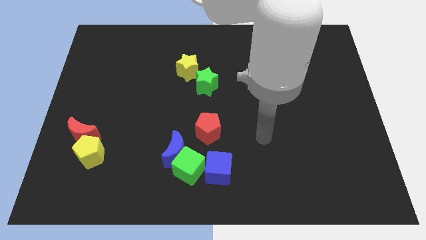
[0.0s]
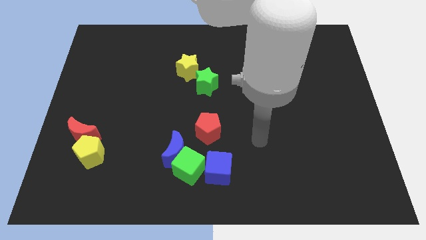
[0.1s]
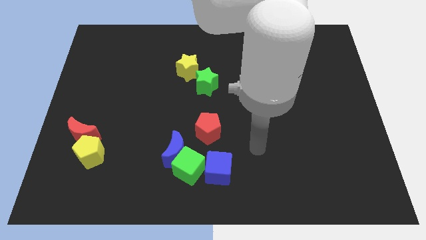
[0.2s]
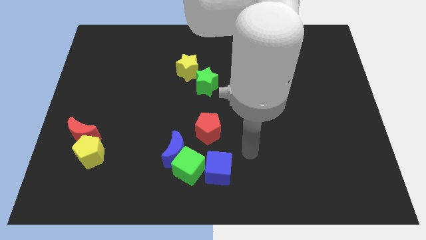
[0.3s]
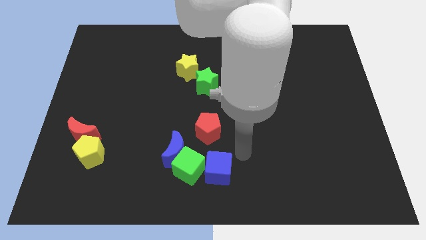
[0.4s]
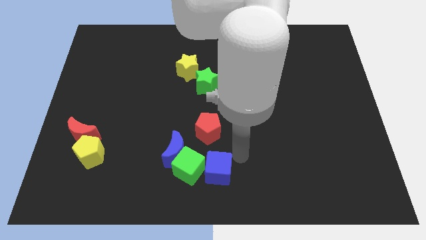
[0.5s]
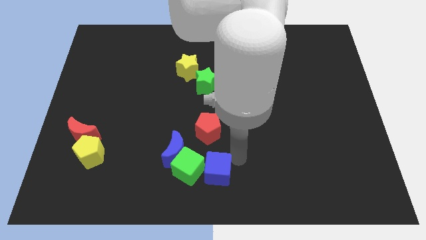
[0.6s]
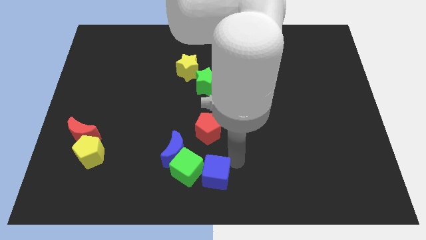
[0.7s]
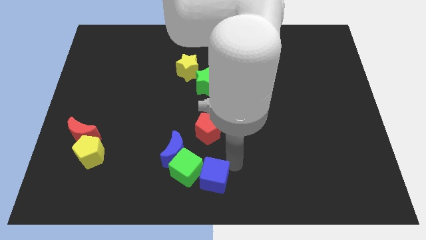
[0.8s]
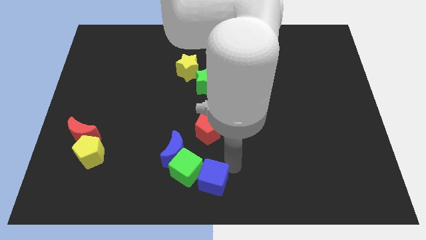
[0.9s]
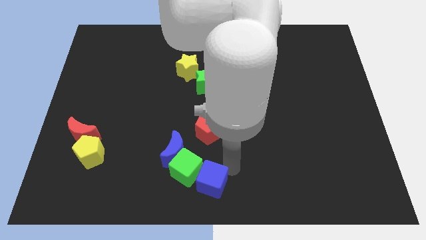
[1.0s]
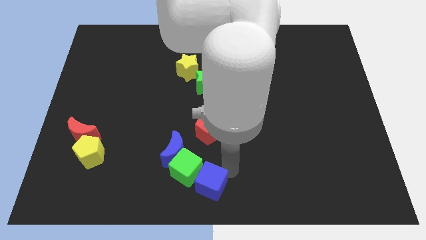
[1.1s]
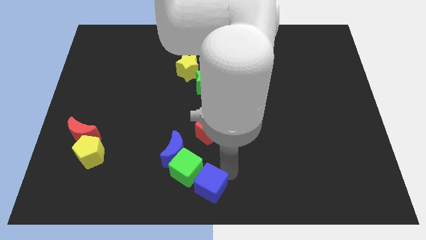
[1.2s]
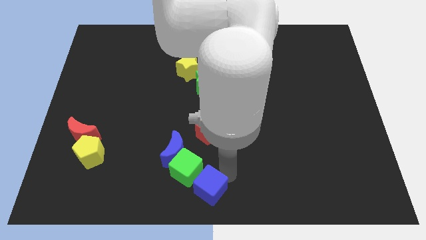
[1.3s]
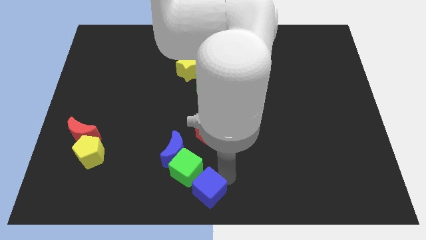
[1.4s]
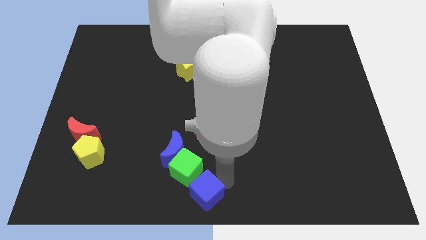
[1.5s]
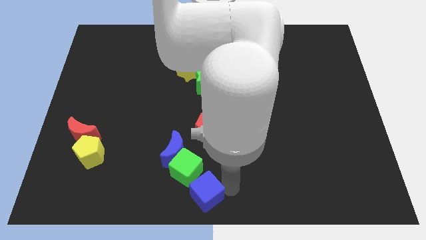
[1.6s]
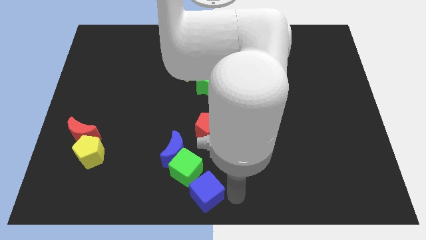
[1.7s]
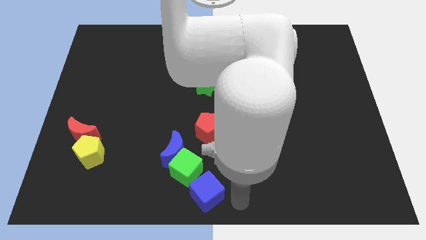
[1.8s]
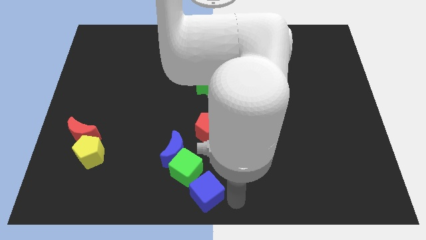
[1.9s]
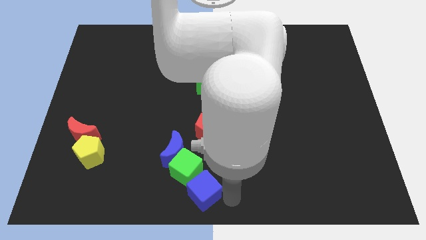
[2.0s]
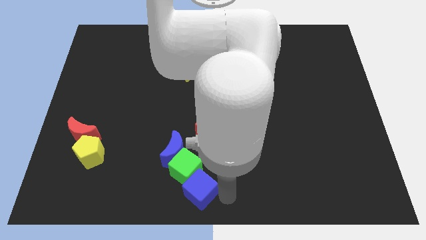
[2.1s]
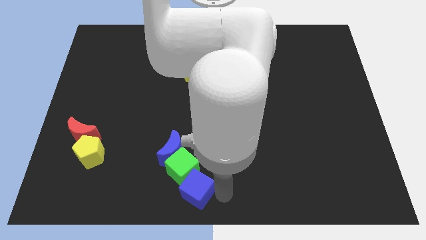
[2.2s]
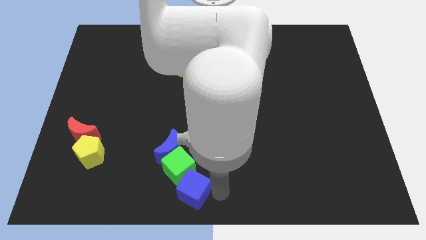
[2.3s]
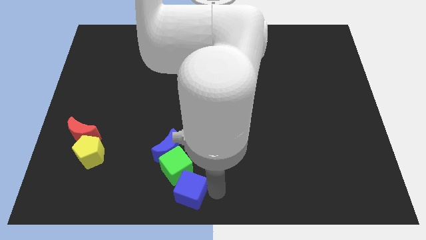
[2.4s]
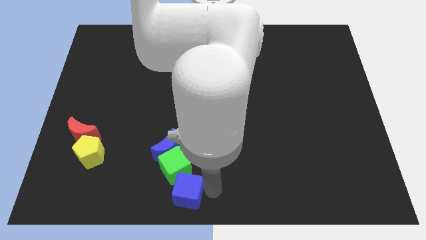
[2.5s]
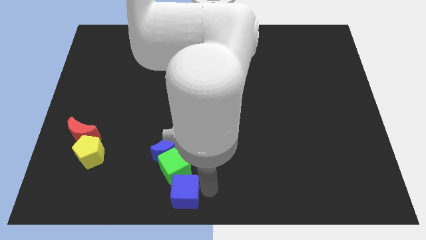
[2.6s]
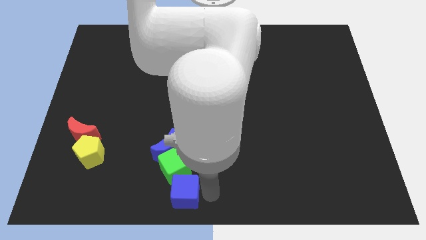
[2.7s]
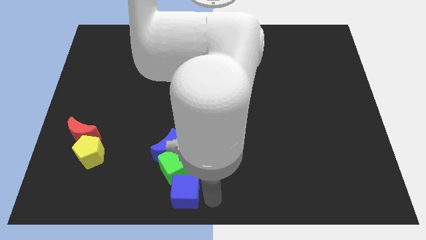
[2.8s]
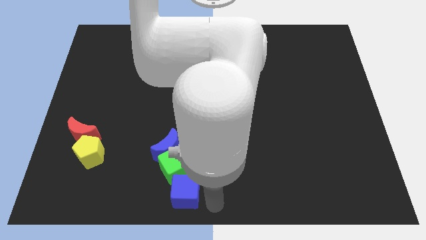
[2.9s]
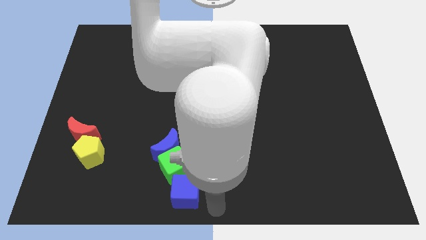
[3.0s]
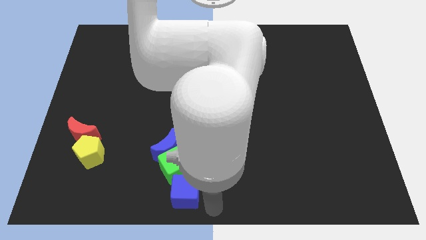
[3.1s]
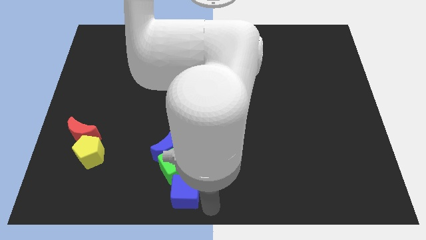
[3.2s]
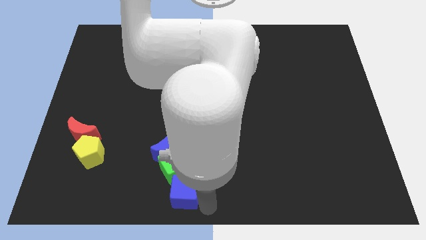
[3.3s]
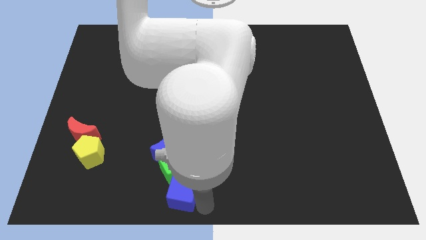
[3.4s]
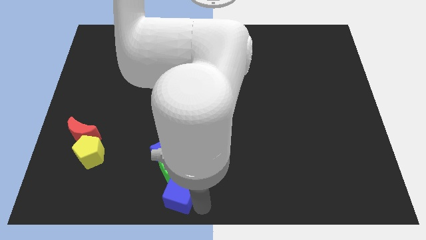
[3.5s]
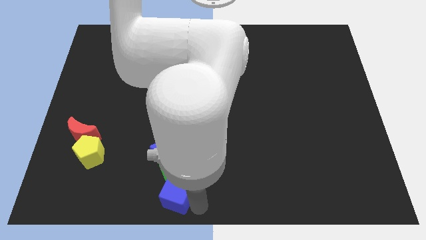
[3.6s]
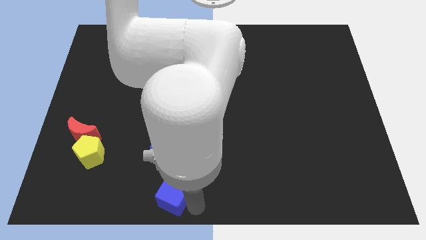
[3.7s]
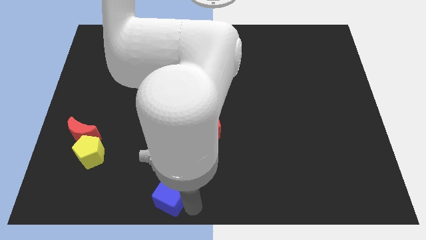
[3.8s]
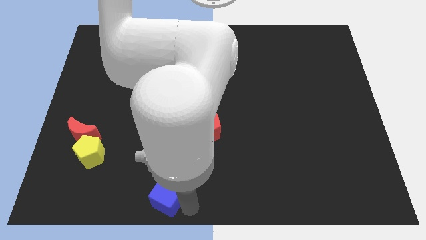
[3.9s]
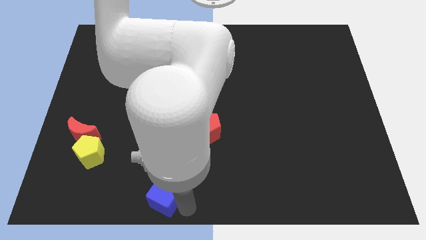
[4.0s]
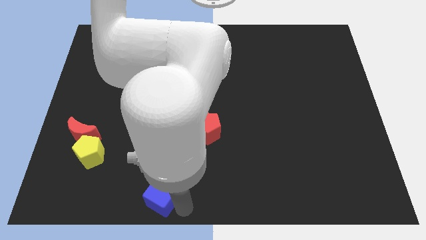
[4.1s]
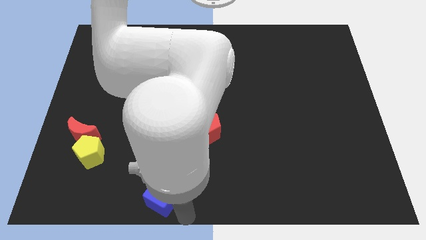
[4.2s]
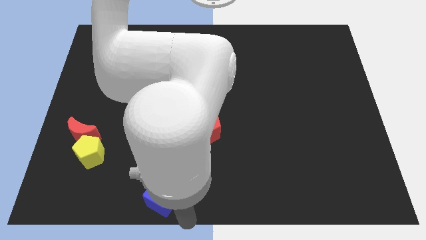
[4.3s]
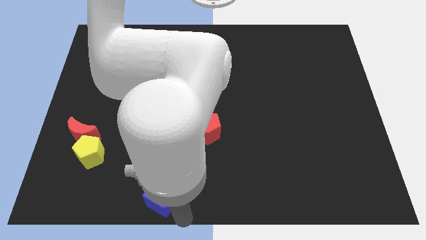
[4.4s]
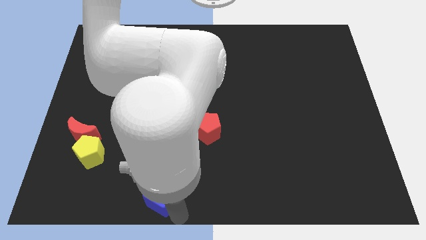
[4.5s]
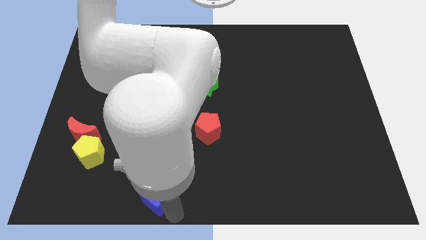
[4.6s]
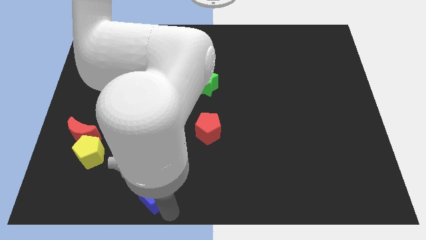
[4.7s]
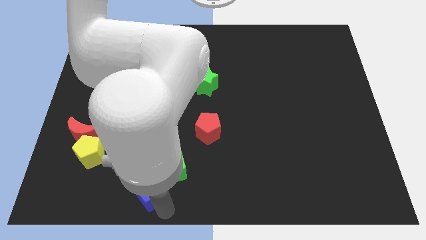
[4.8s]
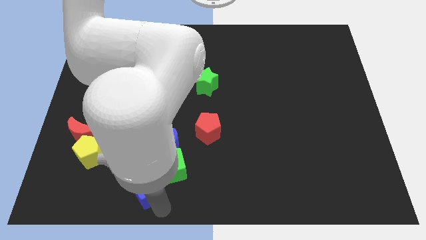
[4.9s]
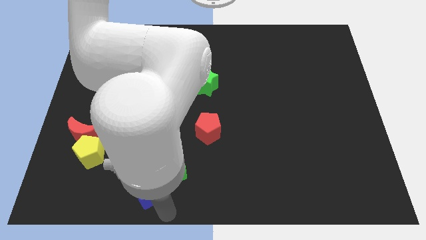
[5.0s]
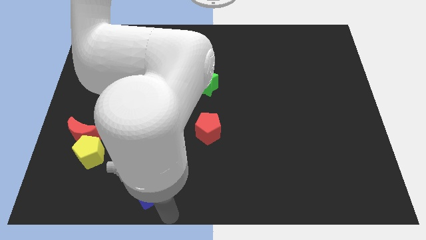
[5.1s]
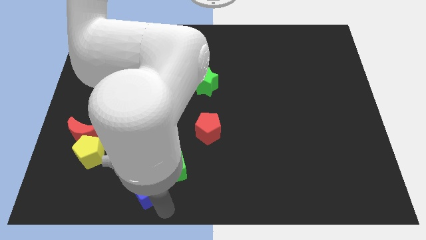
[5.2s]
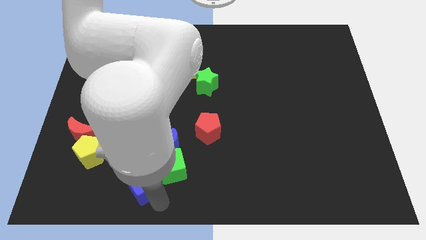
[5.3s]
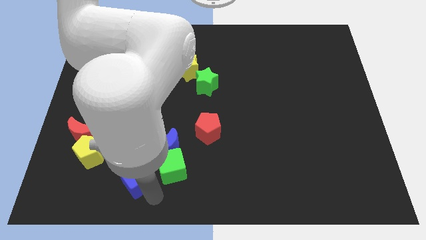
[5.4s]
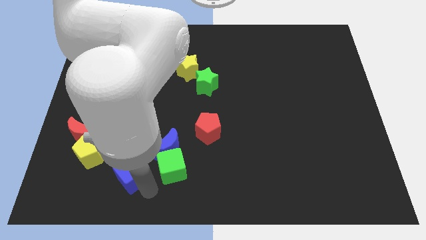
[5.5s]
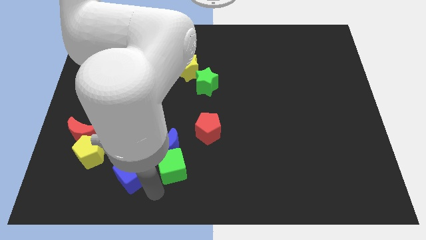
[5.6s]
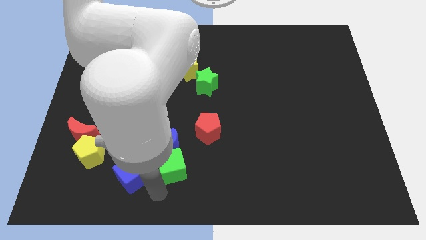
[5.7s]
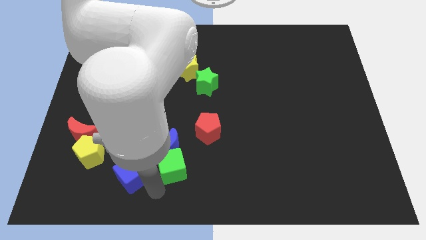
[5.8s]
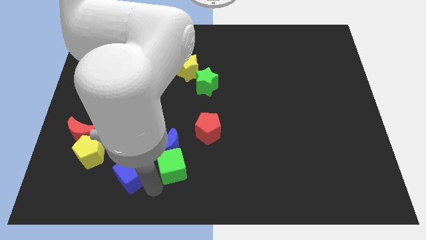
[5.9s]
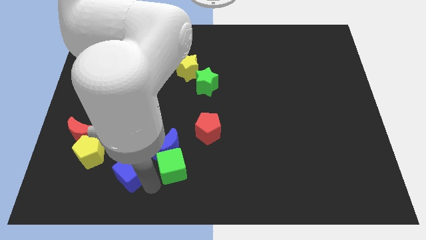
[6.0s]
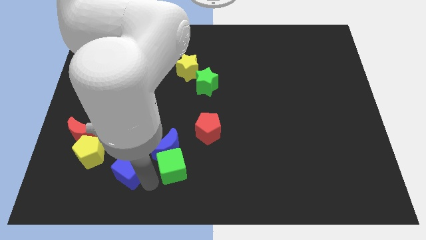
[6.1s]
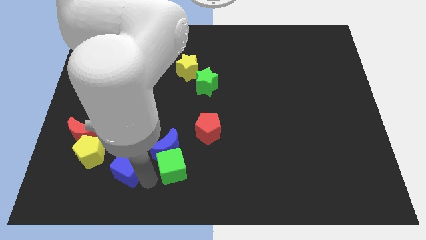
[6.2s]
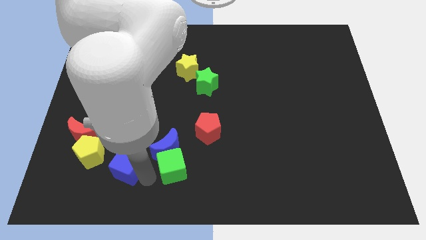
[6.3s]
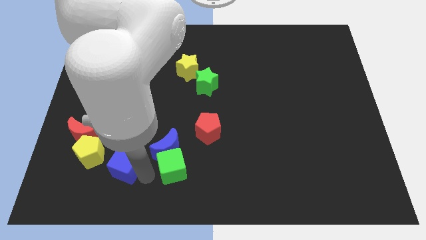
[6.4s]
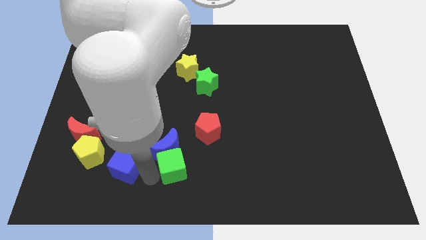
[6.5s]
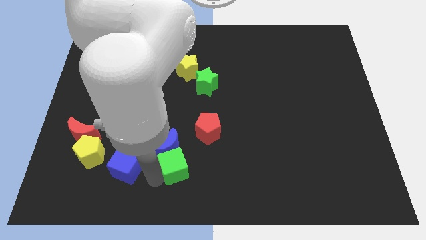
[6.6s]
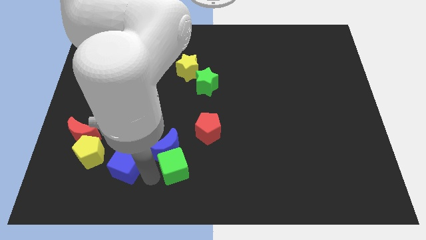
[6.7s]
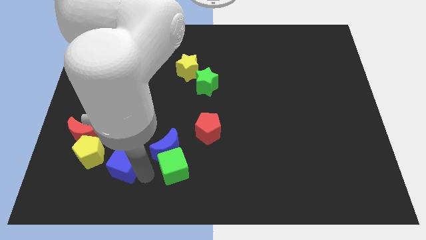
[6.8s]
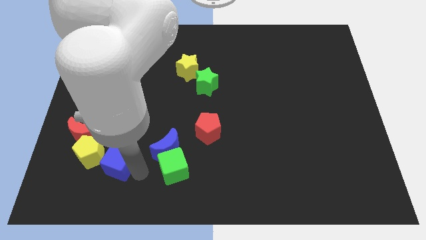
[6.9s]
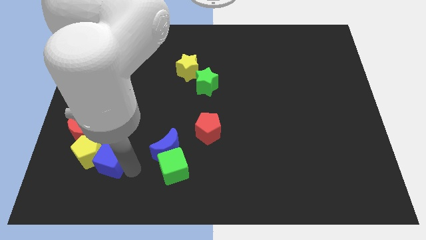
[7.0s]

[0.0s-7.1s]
put the blue cube close to the yellow pentagon
